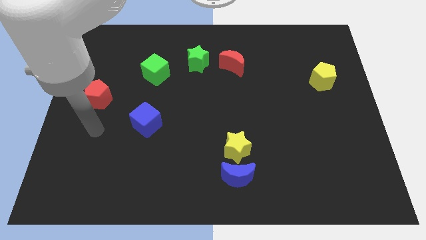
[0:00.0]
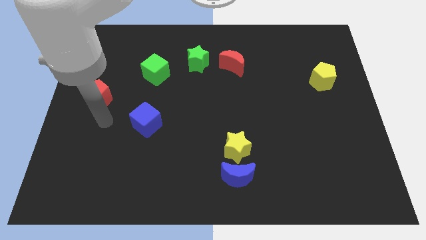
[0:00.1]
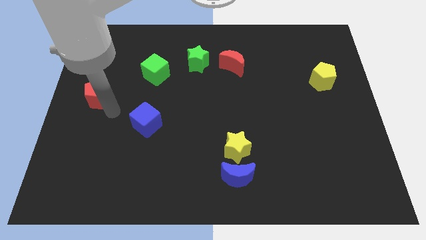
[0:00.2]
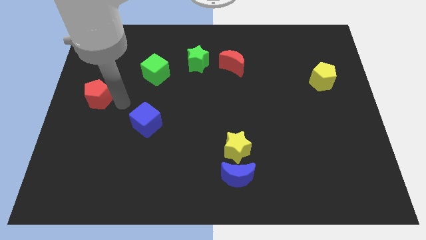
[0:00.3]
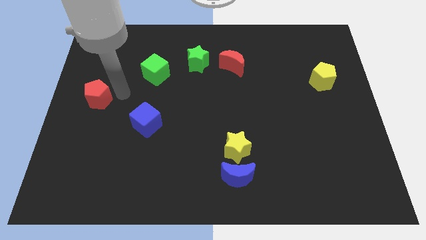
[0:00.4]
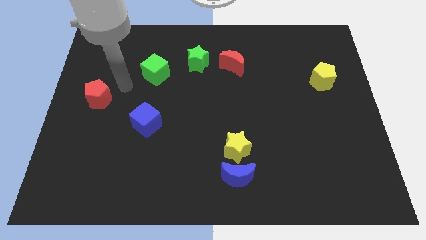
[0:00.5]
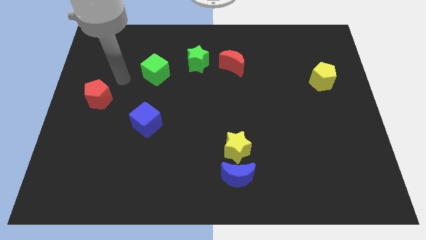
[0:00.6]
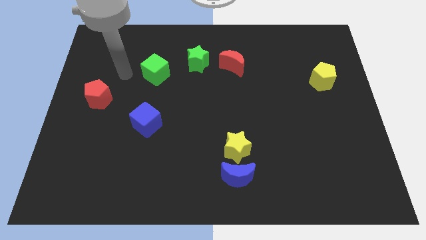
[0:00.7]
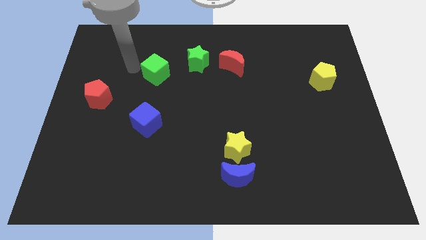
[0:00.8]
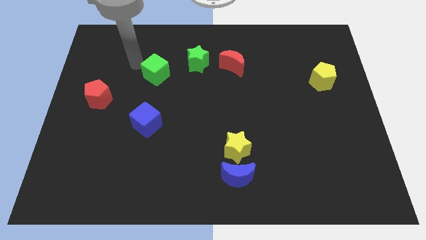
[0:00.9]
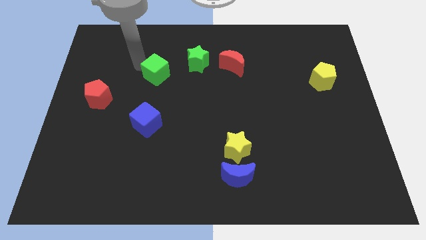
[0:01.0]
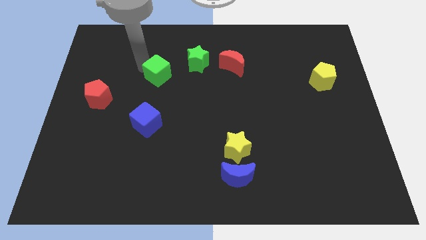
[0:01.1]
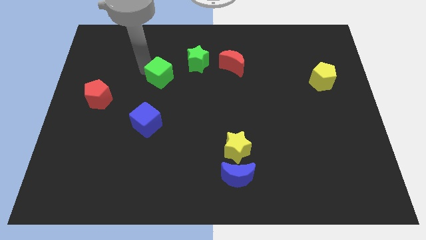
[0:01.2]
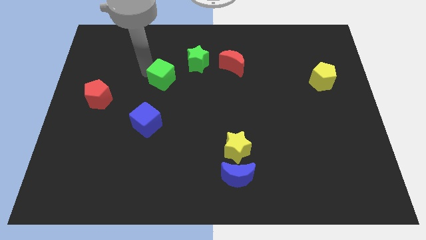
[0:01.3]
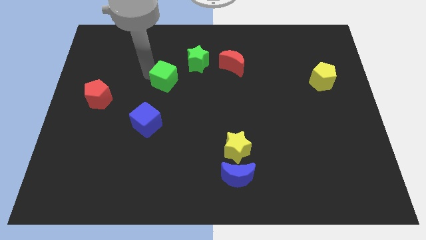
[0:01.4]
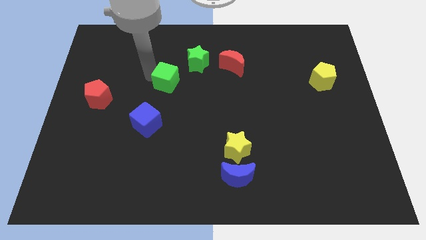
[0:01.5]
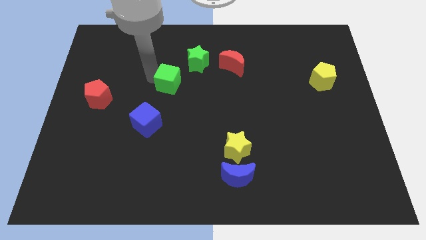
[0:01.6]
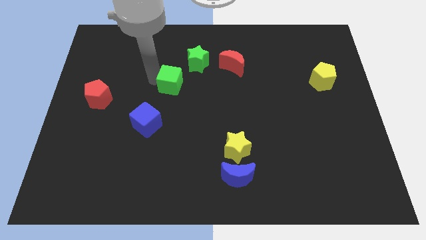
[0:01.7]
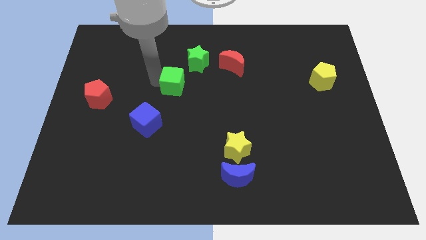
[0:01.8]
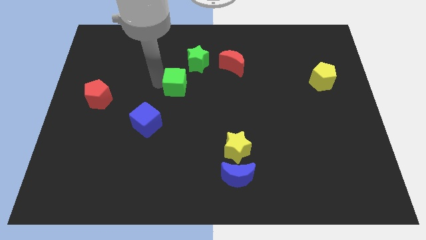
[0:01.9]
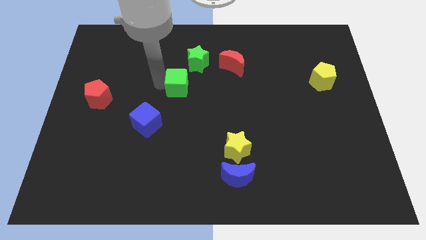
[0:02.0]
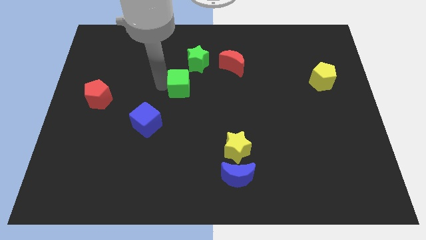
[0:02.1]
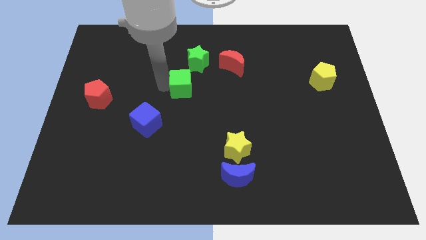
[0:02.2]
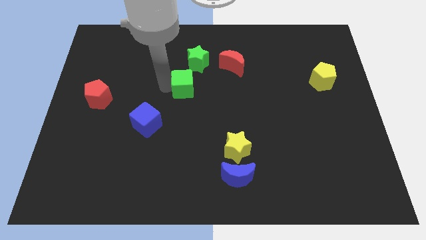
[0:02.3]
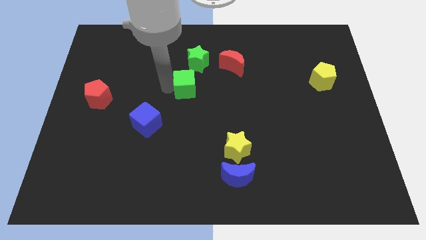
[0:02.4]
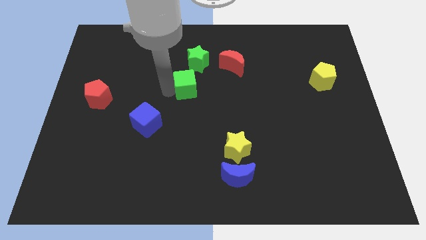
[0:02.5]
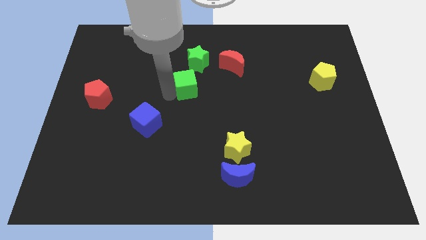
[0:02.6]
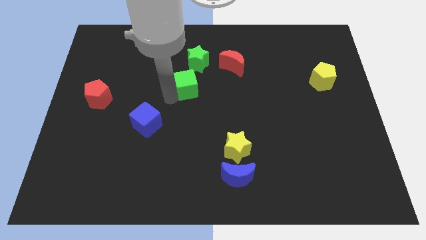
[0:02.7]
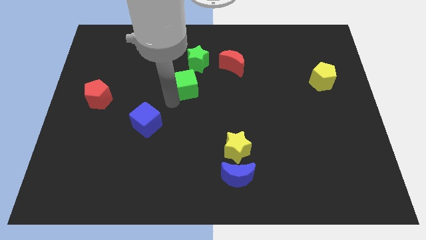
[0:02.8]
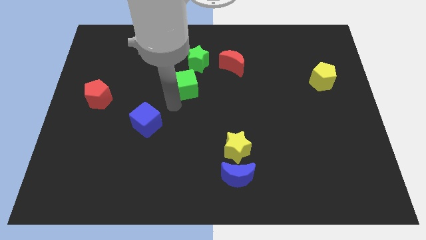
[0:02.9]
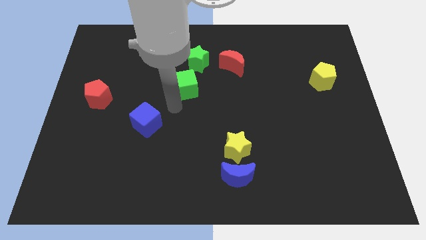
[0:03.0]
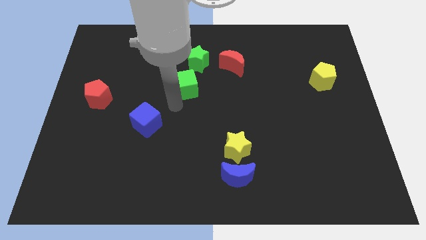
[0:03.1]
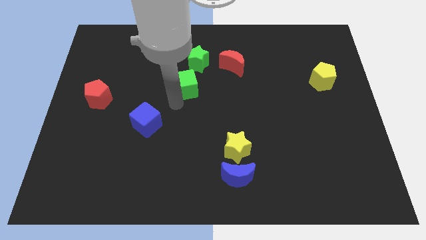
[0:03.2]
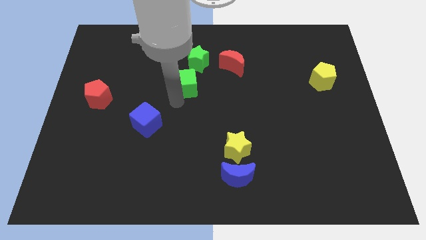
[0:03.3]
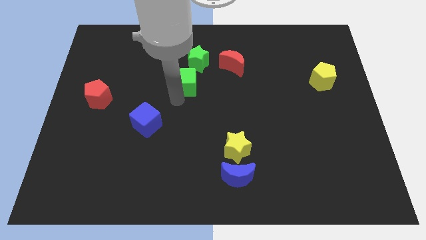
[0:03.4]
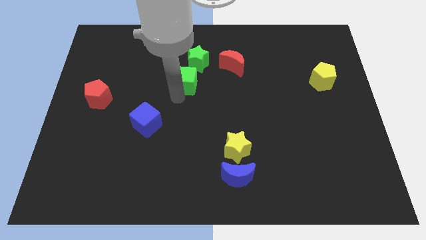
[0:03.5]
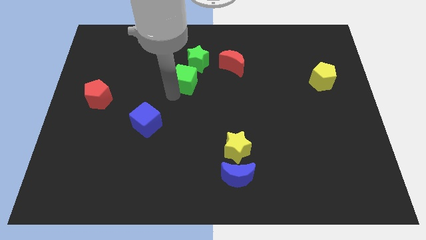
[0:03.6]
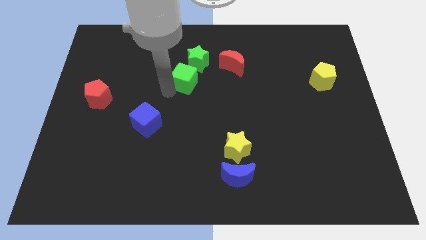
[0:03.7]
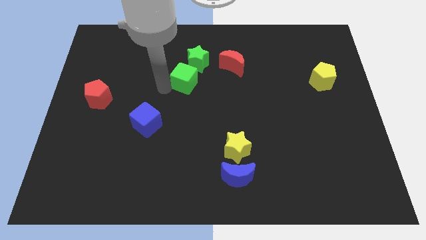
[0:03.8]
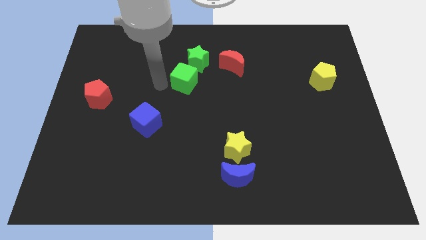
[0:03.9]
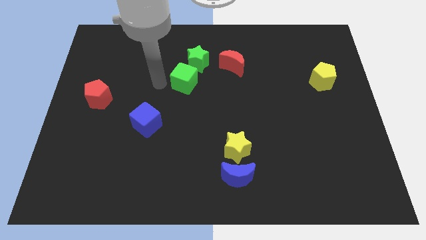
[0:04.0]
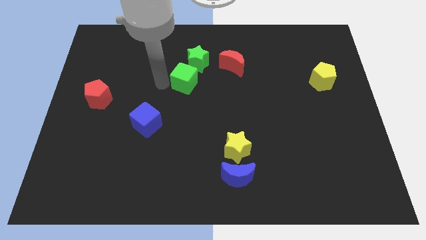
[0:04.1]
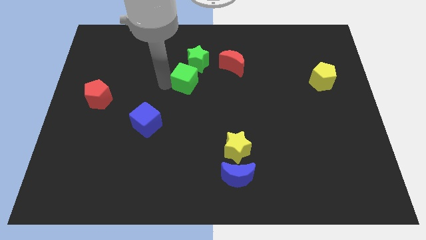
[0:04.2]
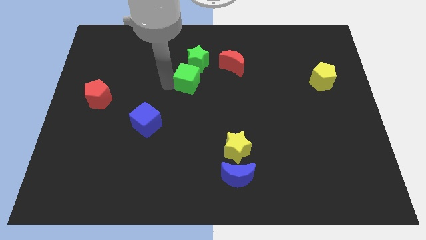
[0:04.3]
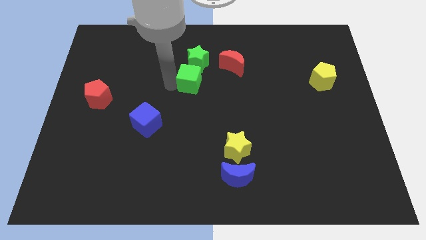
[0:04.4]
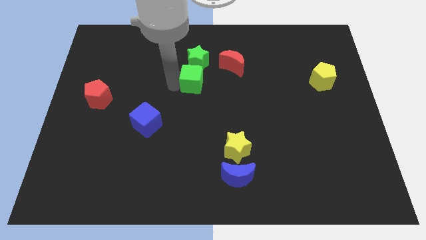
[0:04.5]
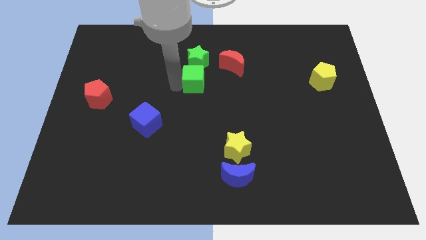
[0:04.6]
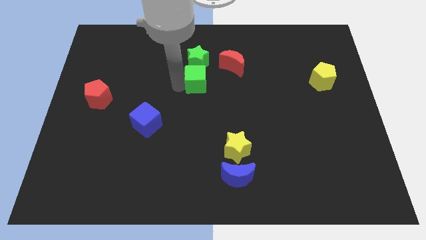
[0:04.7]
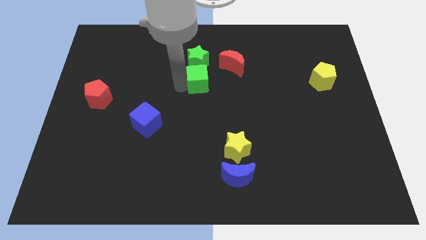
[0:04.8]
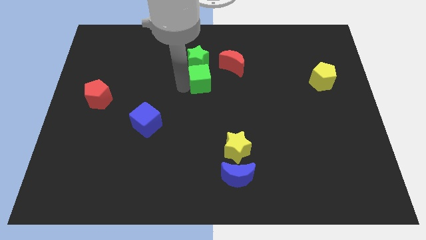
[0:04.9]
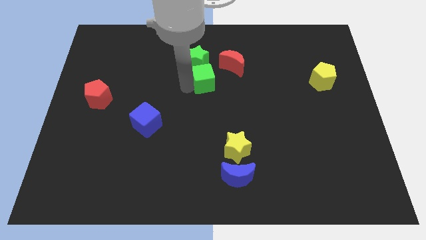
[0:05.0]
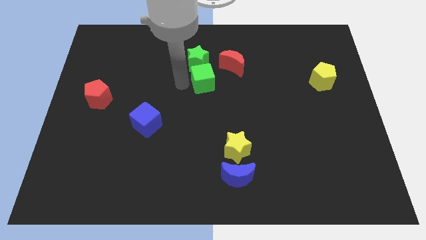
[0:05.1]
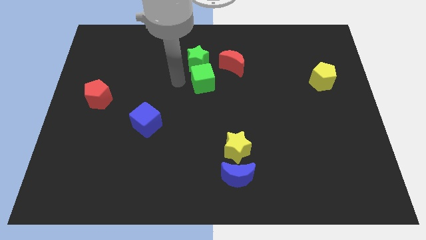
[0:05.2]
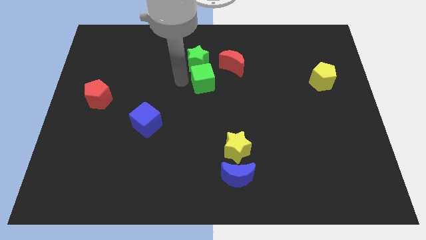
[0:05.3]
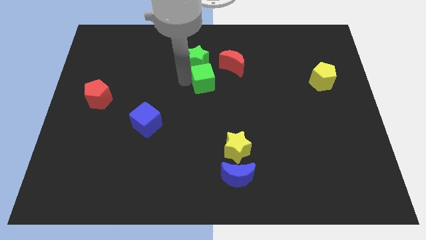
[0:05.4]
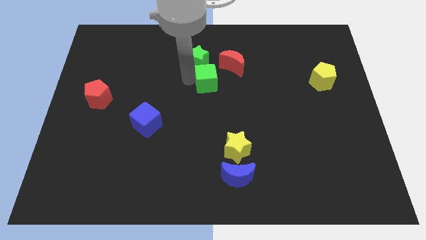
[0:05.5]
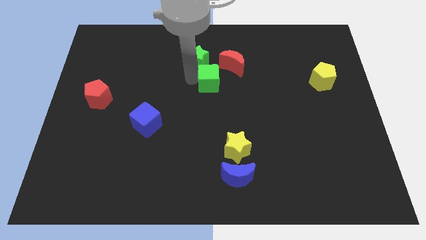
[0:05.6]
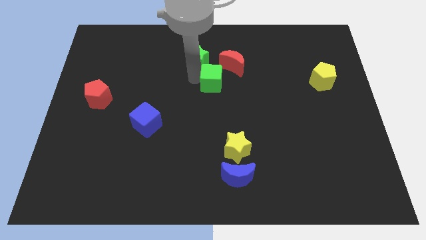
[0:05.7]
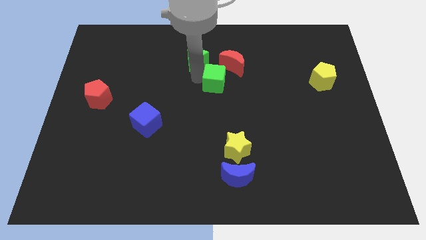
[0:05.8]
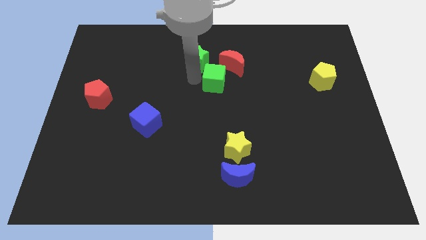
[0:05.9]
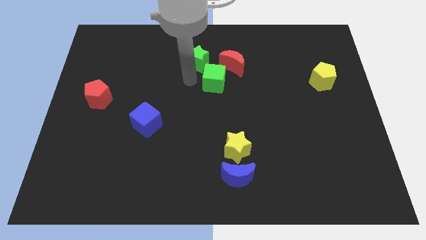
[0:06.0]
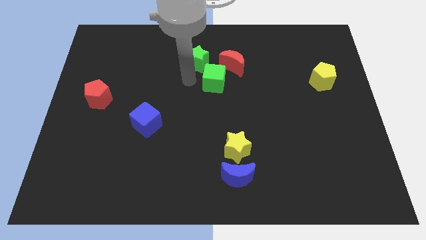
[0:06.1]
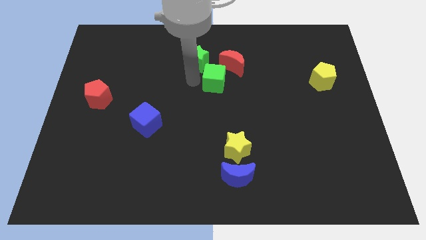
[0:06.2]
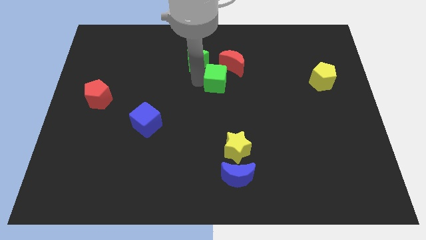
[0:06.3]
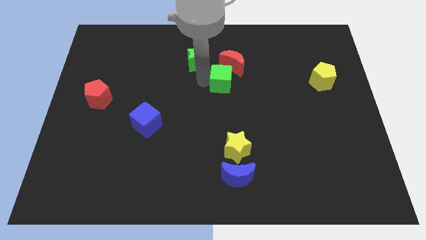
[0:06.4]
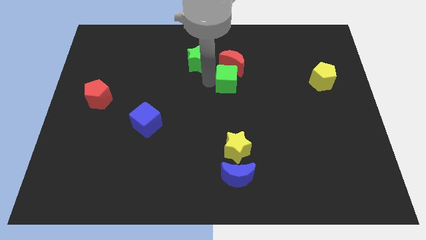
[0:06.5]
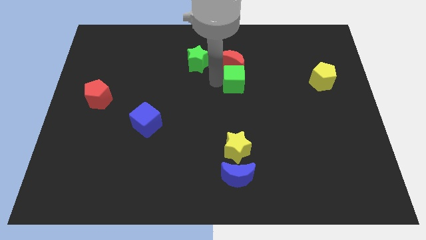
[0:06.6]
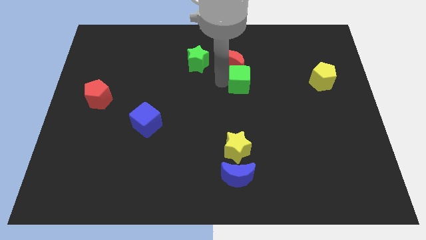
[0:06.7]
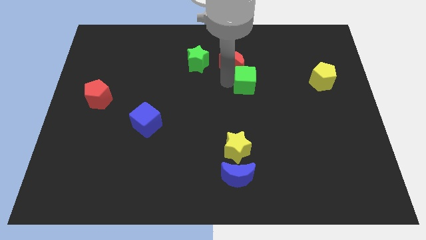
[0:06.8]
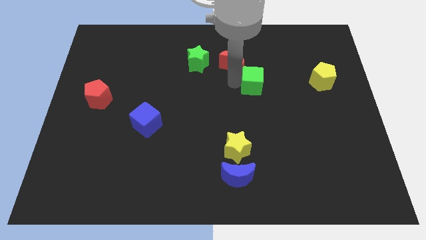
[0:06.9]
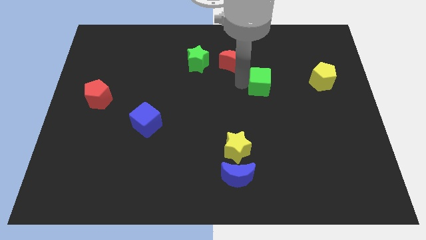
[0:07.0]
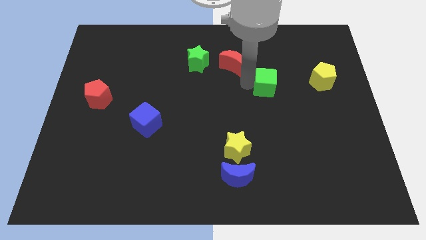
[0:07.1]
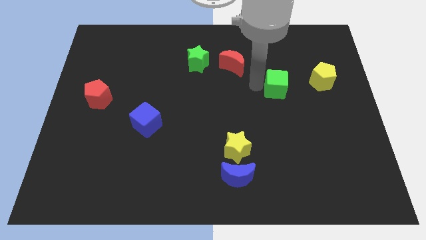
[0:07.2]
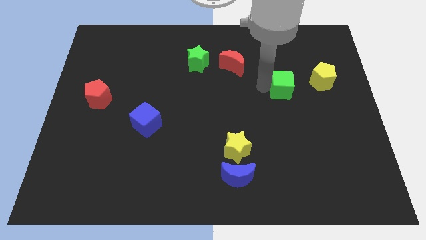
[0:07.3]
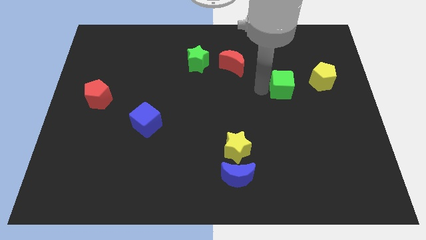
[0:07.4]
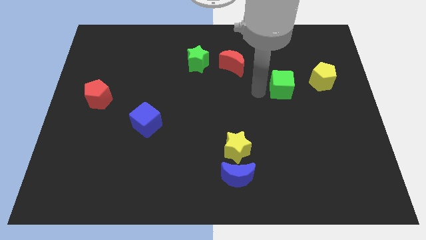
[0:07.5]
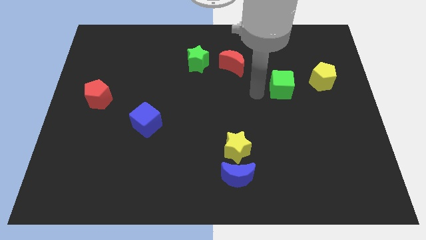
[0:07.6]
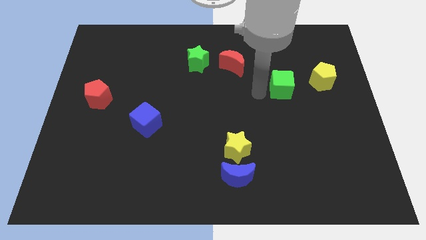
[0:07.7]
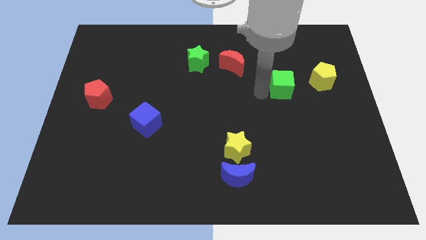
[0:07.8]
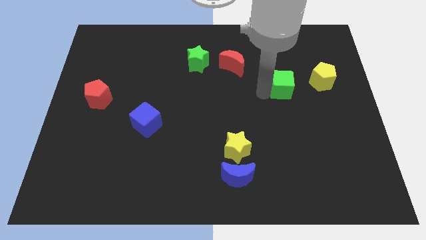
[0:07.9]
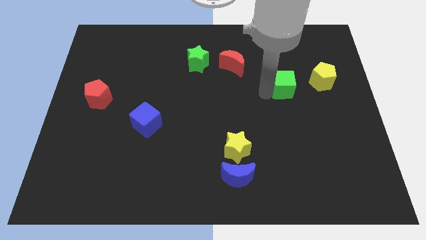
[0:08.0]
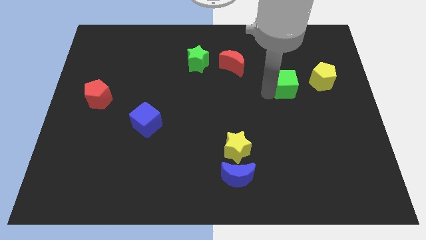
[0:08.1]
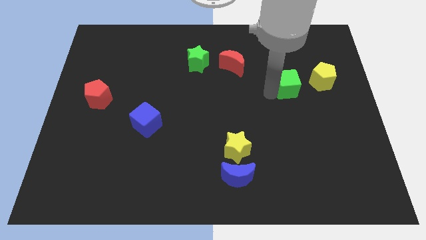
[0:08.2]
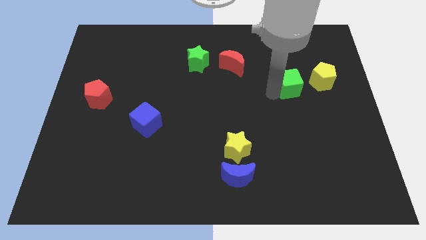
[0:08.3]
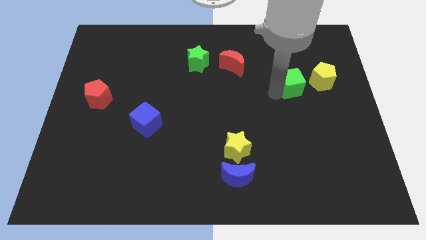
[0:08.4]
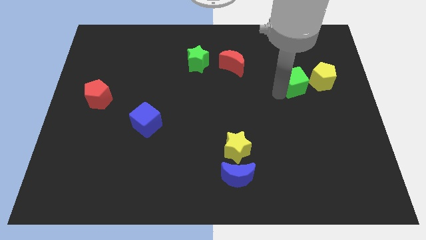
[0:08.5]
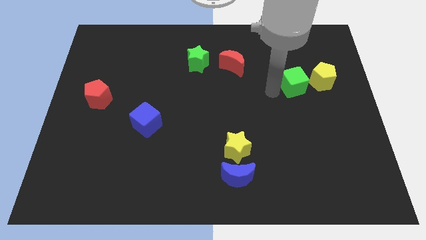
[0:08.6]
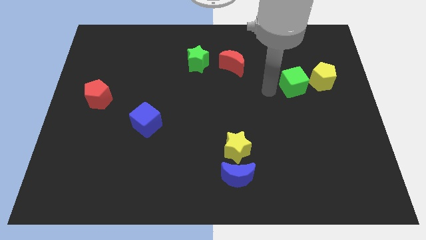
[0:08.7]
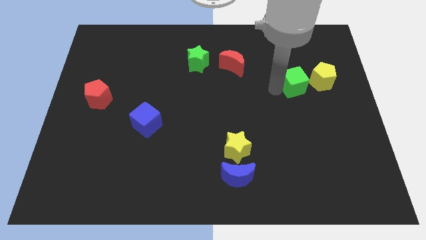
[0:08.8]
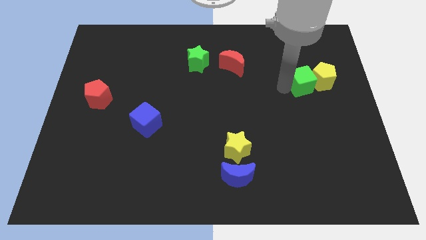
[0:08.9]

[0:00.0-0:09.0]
slide the green cube to the yellow pentagon
